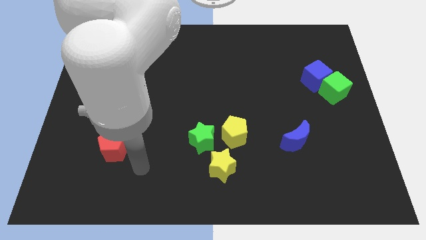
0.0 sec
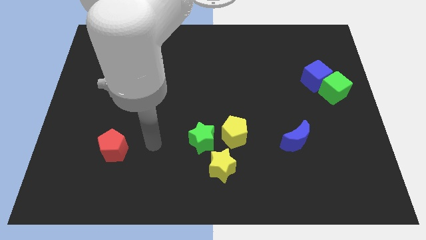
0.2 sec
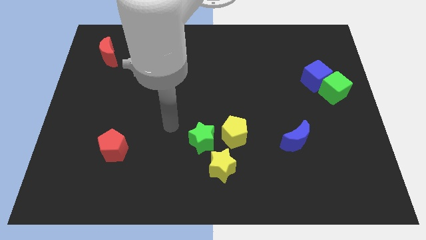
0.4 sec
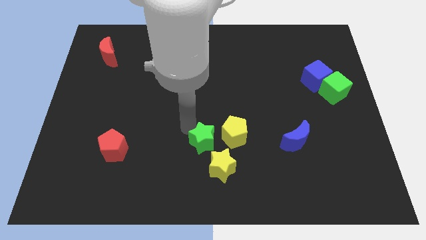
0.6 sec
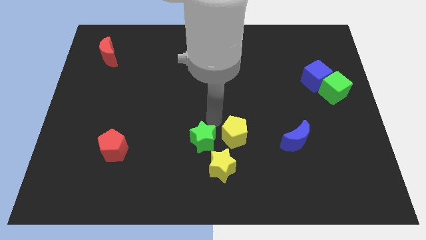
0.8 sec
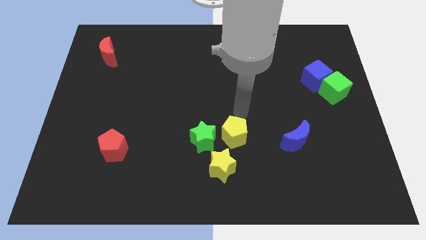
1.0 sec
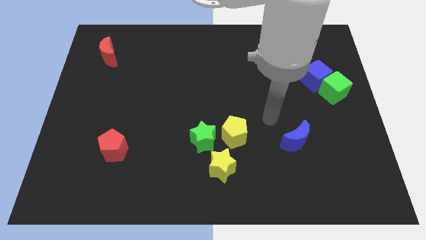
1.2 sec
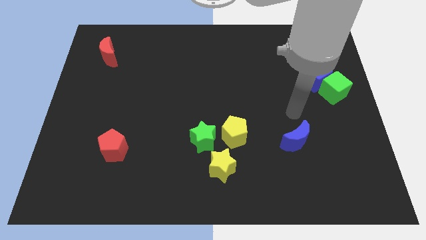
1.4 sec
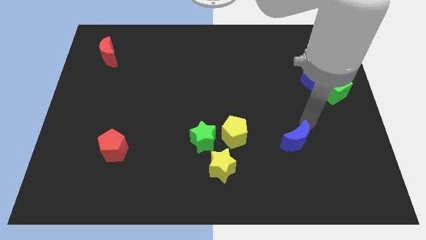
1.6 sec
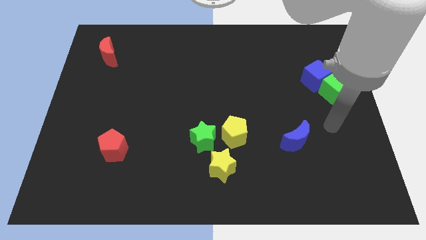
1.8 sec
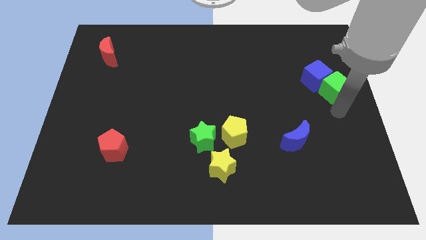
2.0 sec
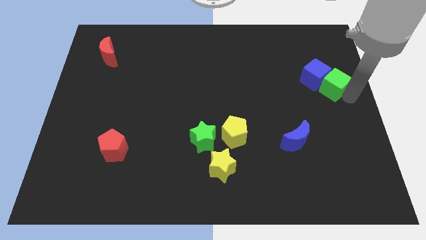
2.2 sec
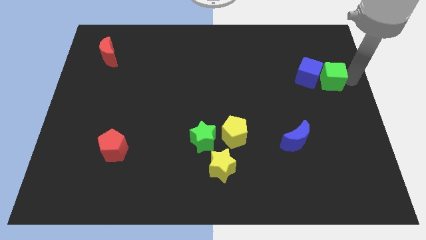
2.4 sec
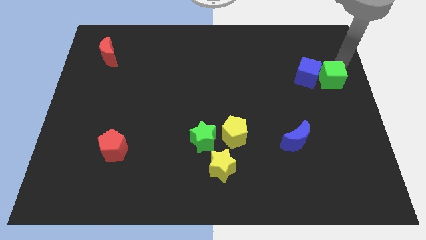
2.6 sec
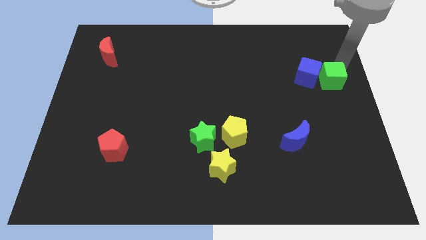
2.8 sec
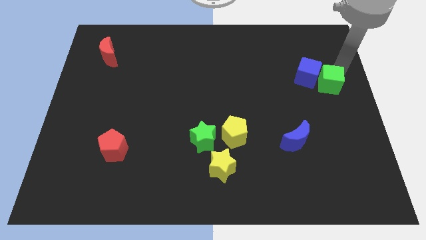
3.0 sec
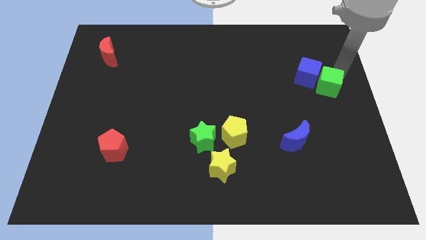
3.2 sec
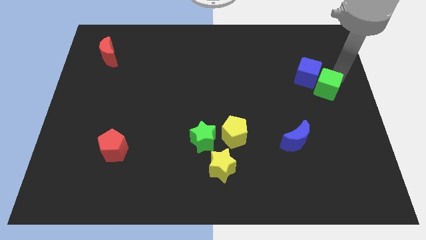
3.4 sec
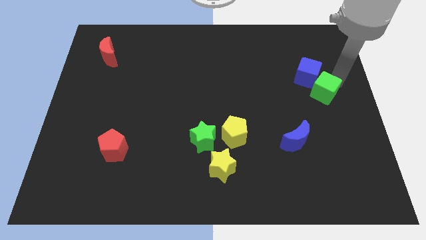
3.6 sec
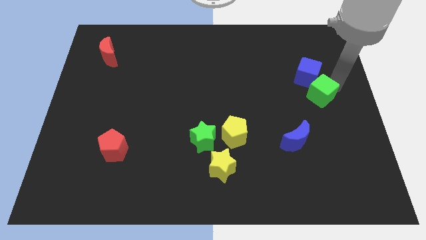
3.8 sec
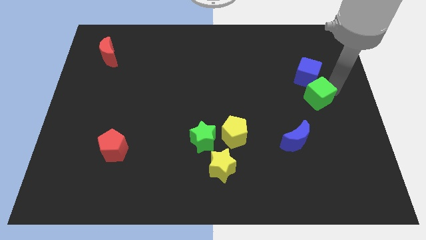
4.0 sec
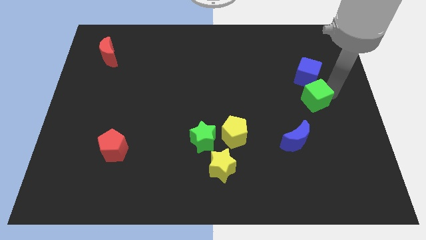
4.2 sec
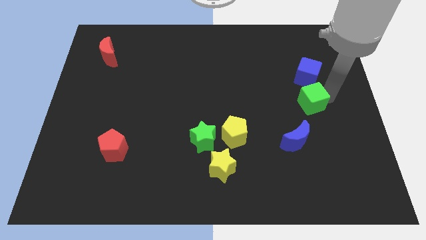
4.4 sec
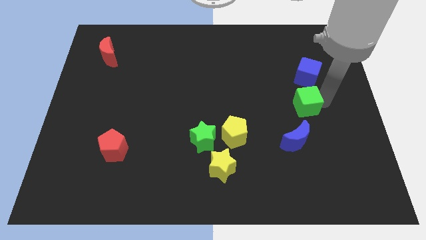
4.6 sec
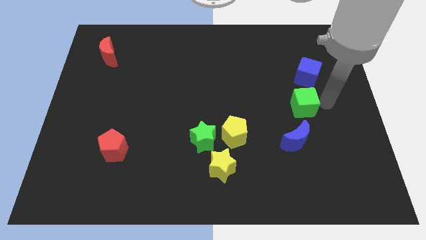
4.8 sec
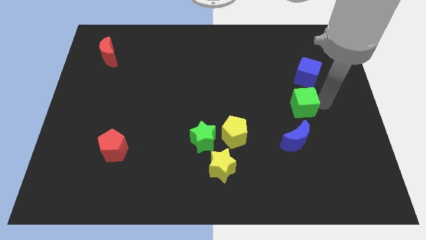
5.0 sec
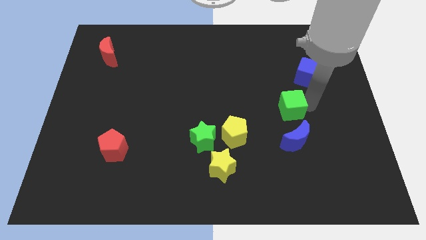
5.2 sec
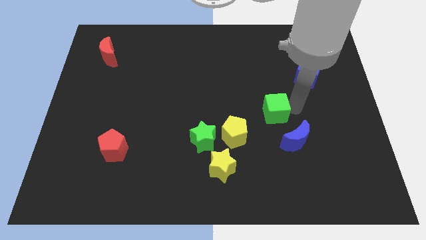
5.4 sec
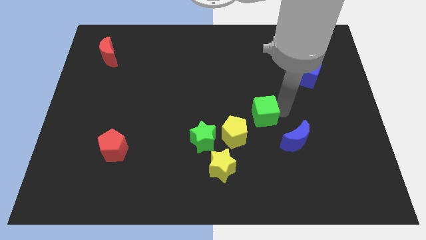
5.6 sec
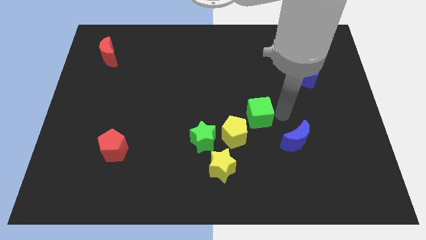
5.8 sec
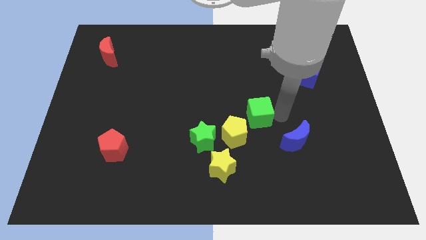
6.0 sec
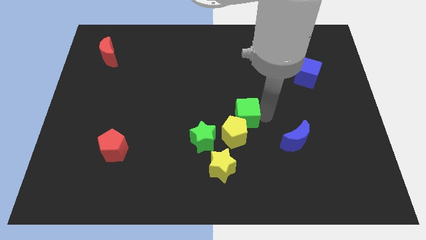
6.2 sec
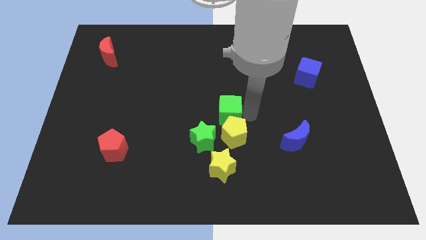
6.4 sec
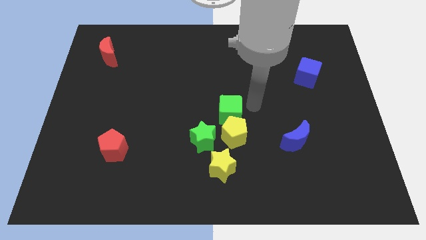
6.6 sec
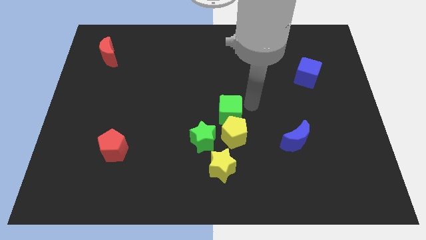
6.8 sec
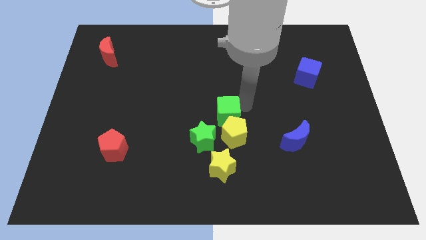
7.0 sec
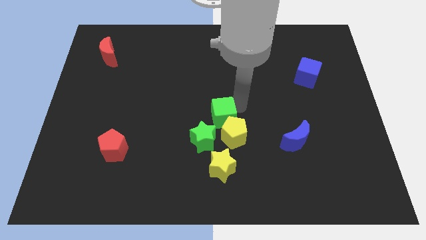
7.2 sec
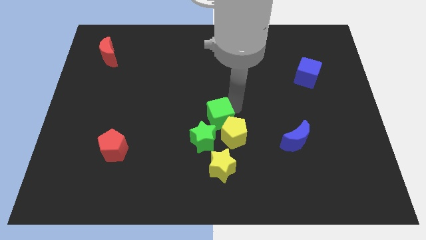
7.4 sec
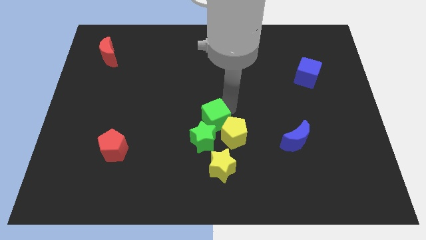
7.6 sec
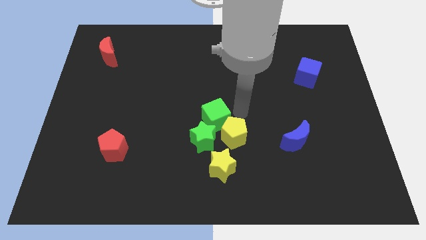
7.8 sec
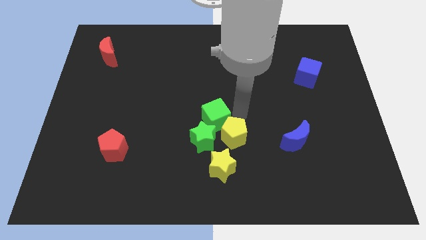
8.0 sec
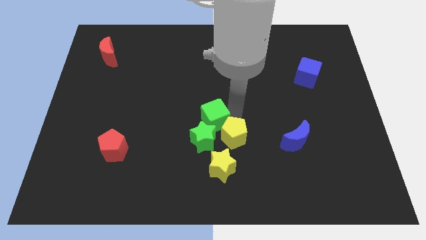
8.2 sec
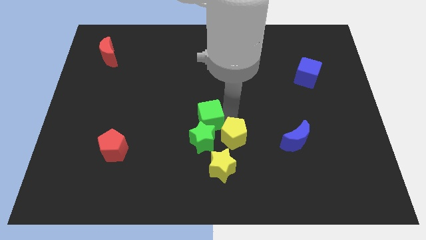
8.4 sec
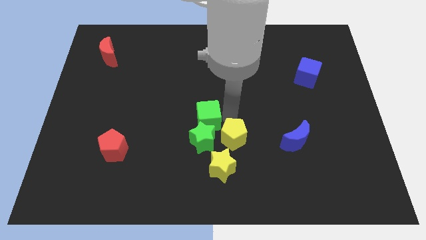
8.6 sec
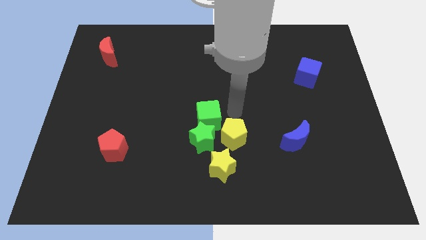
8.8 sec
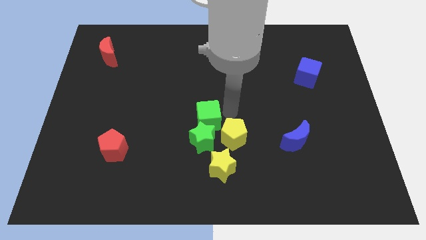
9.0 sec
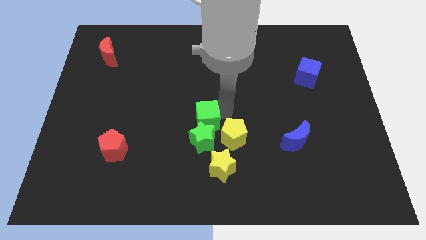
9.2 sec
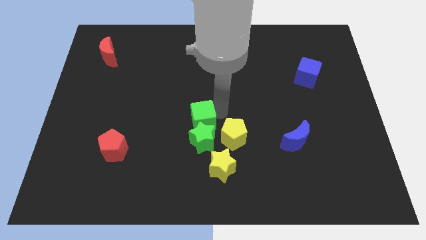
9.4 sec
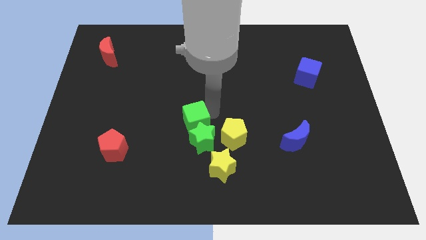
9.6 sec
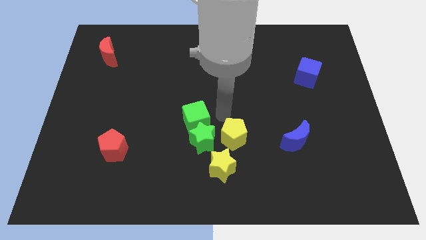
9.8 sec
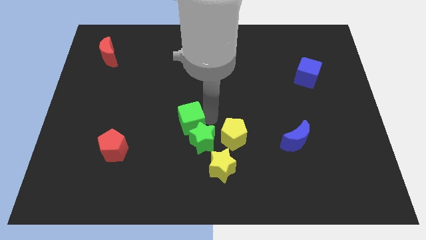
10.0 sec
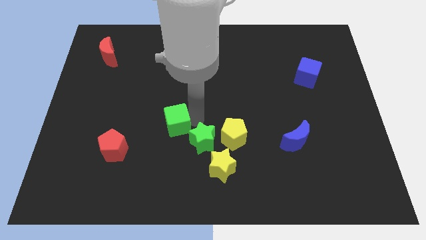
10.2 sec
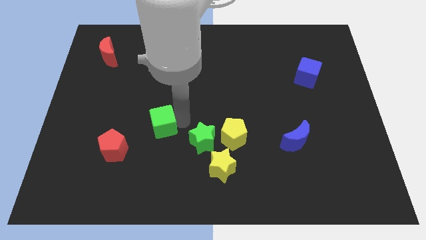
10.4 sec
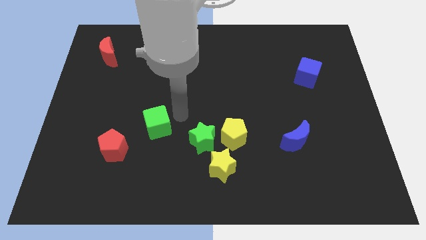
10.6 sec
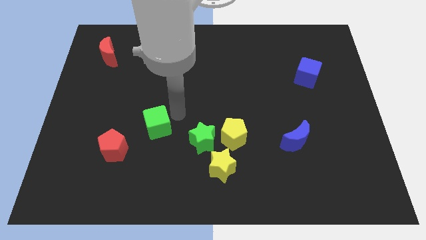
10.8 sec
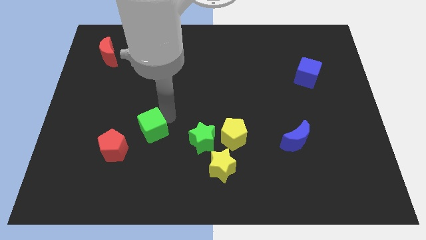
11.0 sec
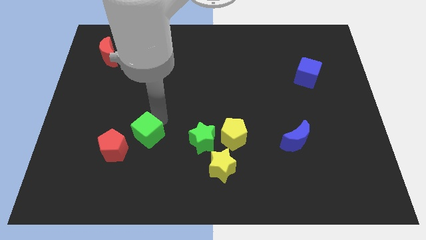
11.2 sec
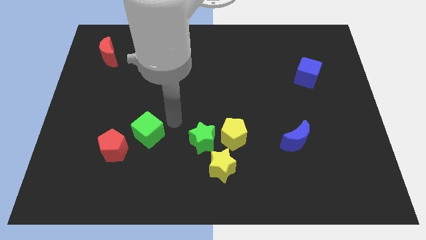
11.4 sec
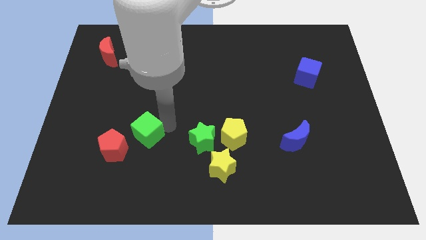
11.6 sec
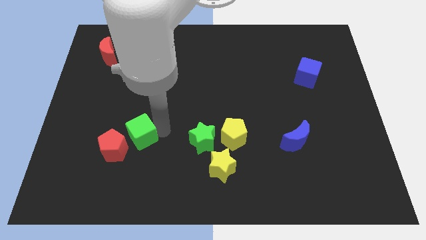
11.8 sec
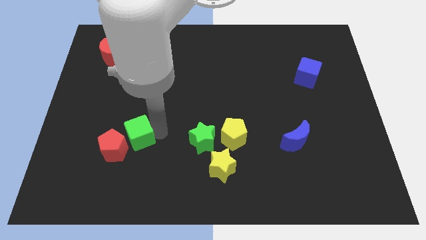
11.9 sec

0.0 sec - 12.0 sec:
slide the green cube towards the red pentagon

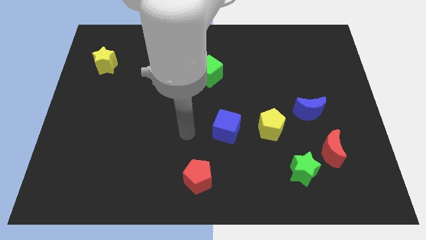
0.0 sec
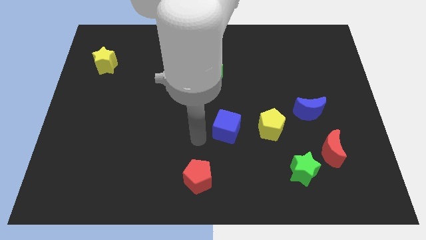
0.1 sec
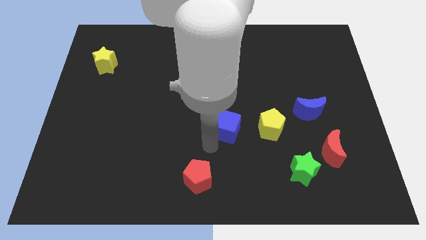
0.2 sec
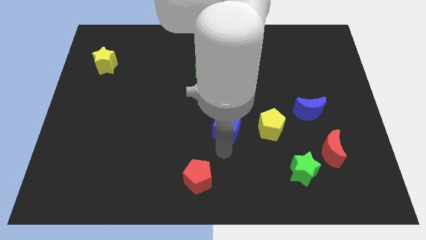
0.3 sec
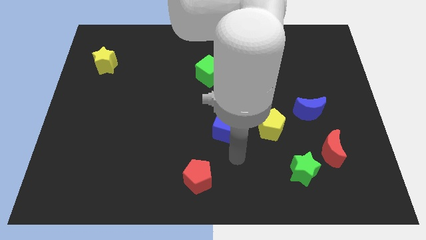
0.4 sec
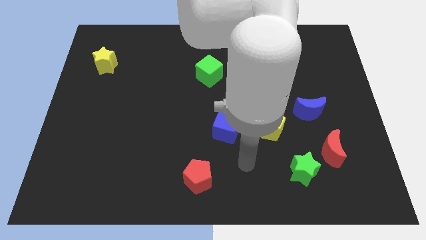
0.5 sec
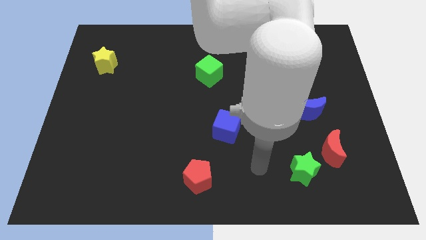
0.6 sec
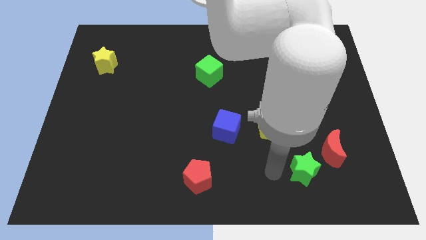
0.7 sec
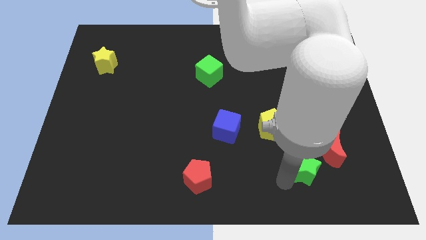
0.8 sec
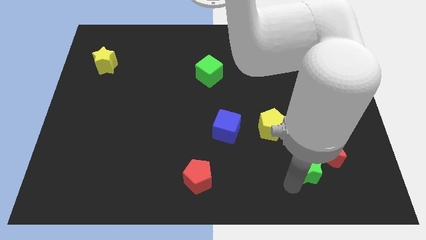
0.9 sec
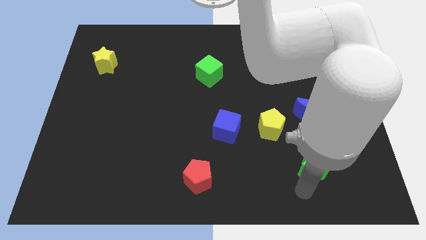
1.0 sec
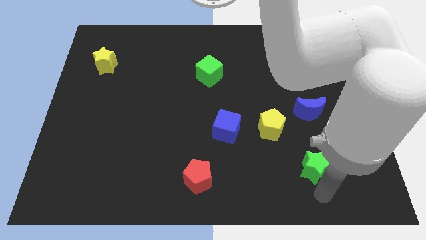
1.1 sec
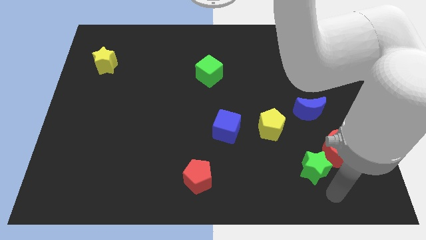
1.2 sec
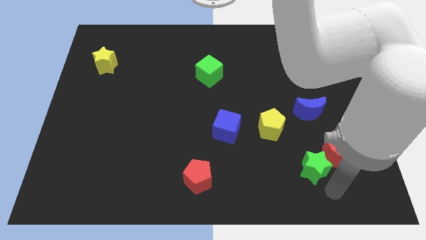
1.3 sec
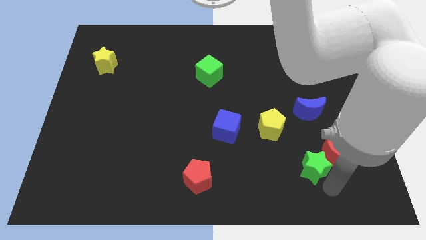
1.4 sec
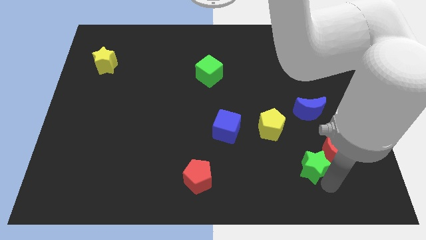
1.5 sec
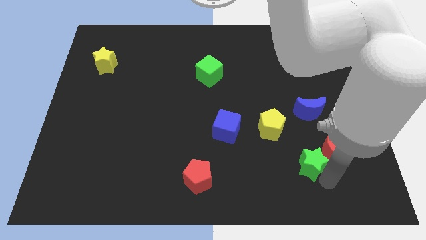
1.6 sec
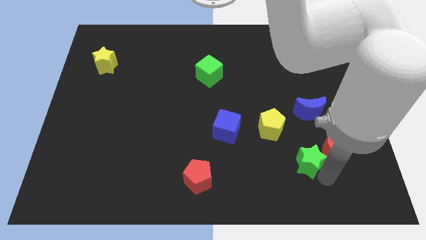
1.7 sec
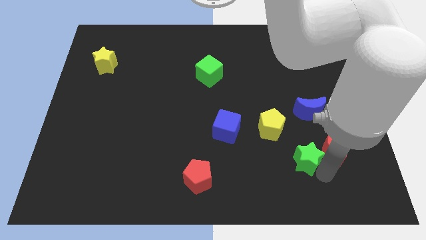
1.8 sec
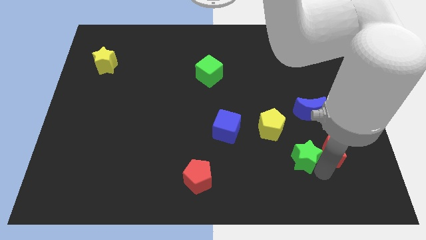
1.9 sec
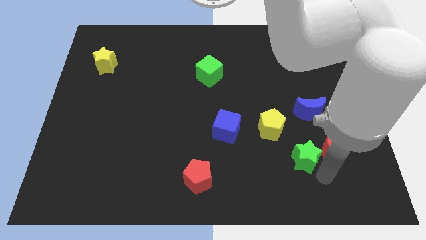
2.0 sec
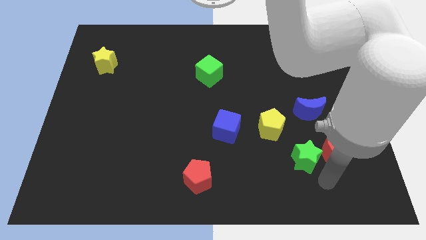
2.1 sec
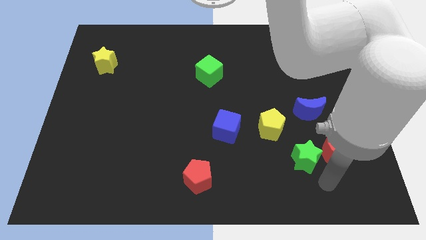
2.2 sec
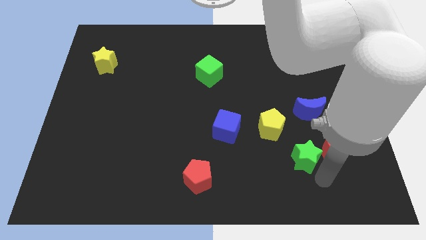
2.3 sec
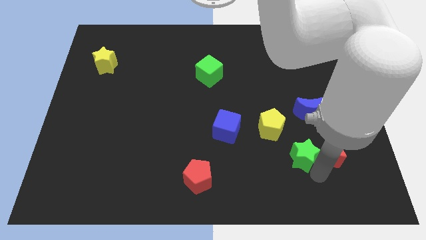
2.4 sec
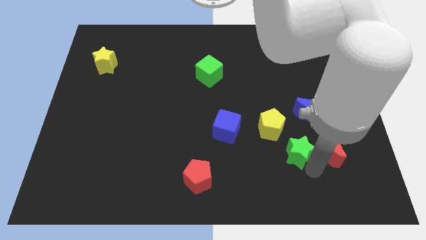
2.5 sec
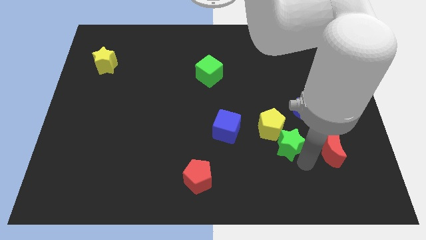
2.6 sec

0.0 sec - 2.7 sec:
push the green star close to the yellow pentagon

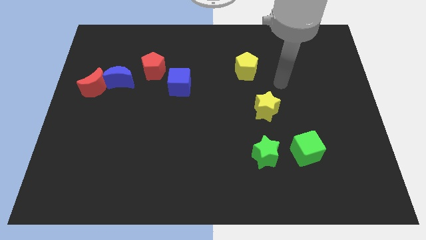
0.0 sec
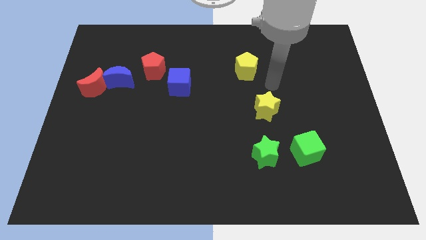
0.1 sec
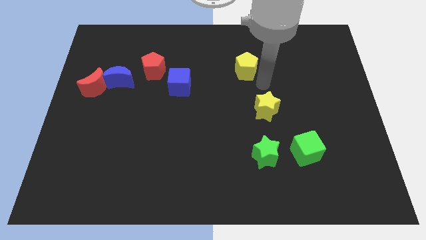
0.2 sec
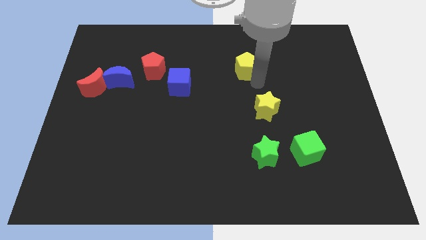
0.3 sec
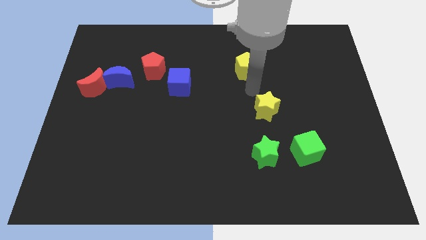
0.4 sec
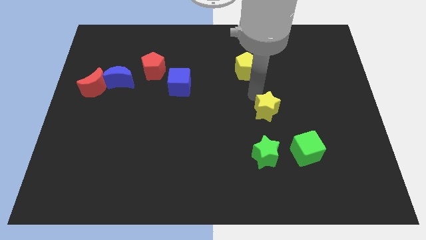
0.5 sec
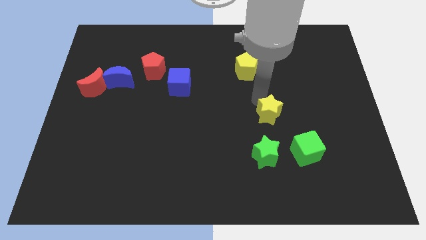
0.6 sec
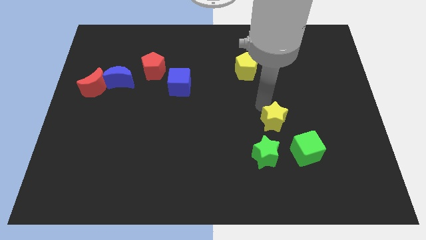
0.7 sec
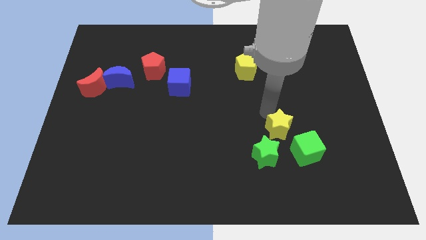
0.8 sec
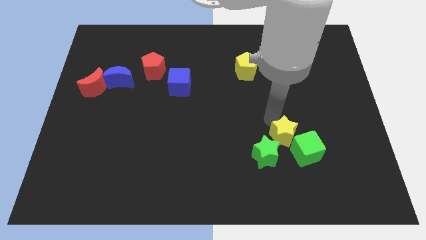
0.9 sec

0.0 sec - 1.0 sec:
slide the yellow star towards the green cube
